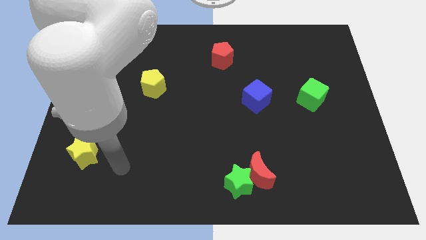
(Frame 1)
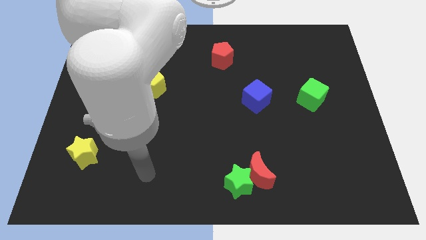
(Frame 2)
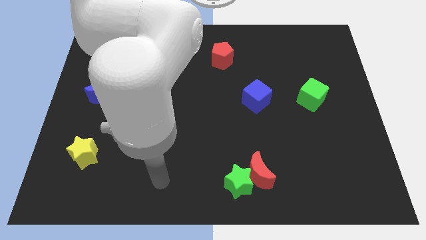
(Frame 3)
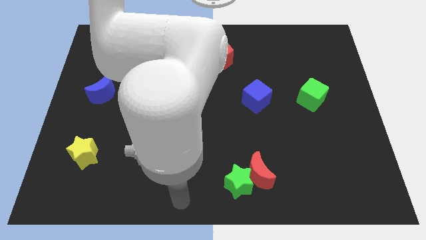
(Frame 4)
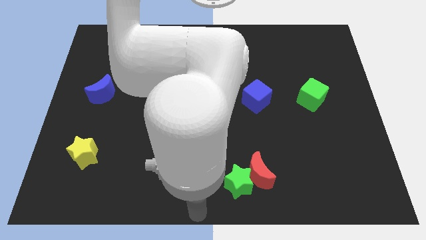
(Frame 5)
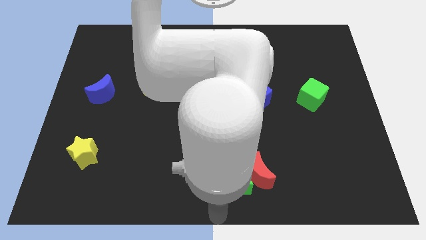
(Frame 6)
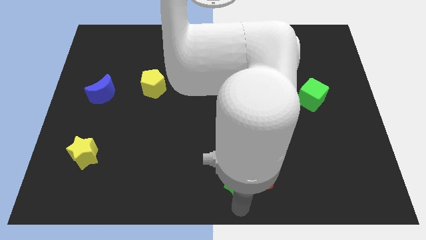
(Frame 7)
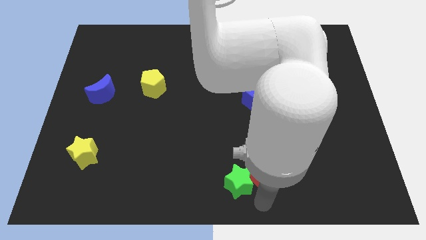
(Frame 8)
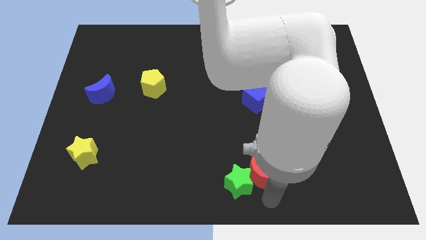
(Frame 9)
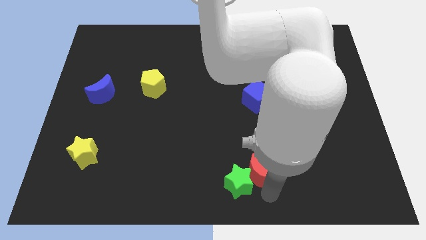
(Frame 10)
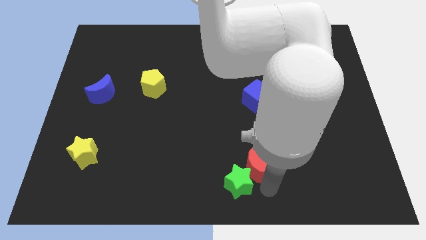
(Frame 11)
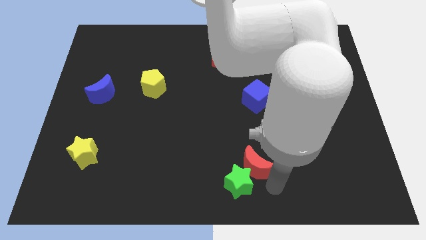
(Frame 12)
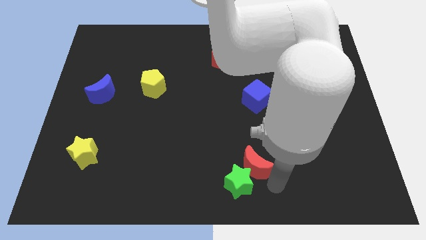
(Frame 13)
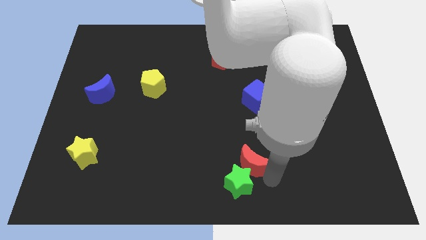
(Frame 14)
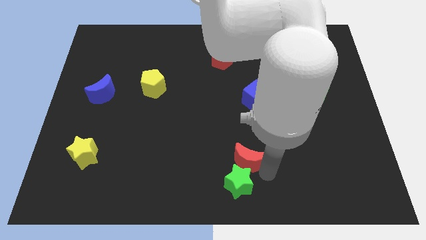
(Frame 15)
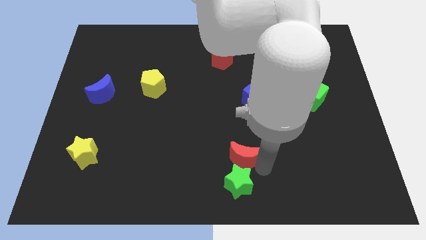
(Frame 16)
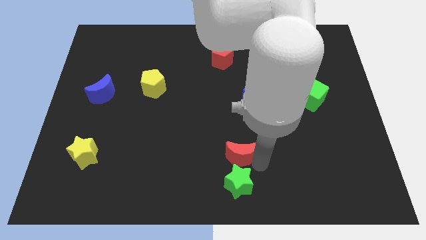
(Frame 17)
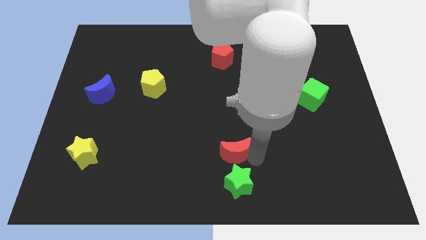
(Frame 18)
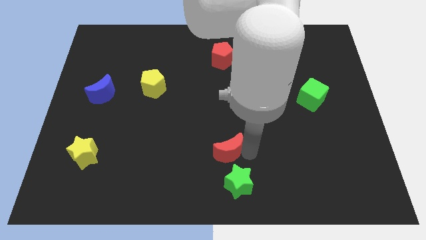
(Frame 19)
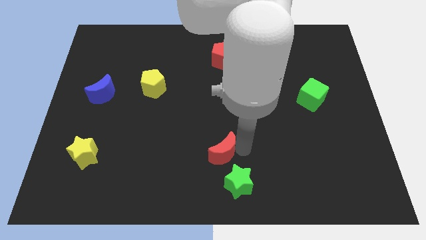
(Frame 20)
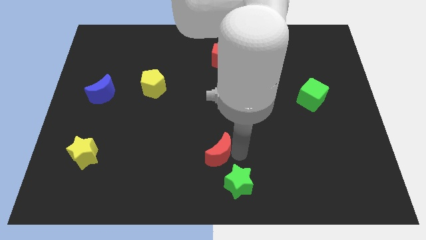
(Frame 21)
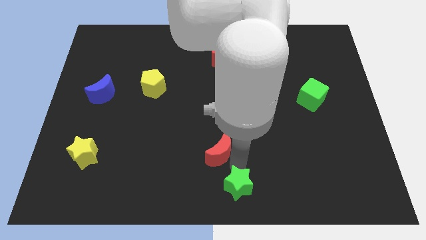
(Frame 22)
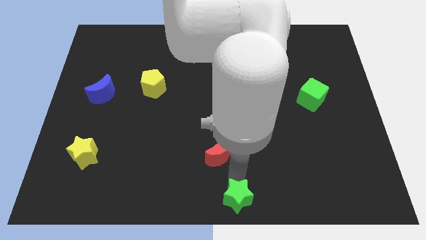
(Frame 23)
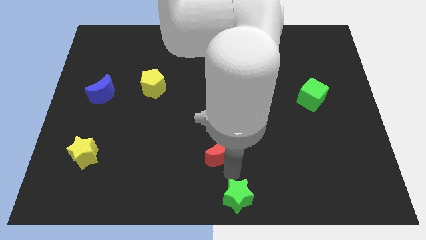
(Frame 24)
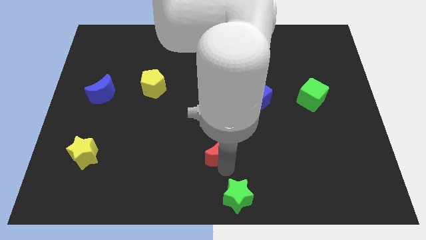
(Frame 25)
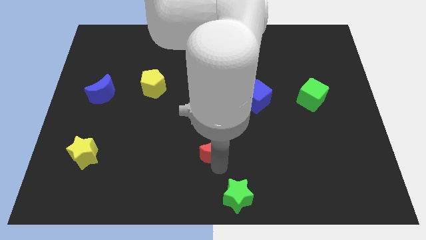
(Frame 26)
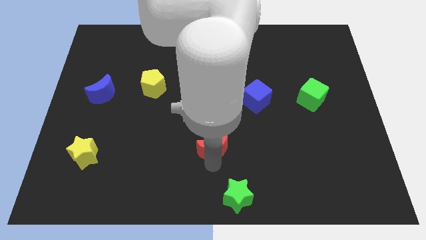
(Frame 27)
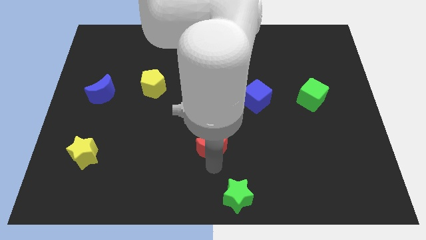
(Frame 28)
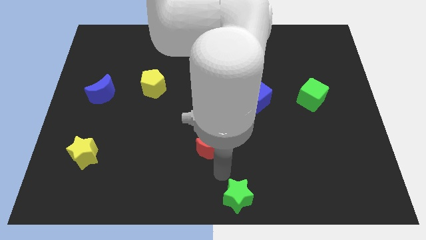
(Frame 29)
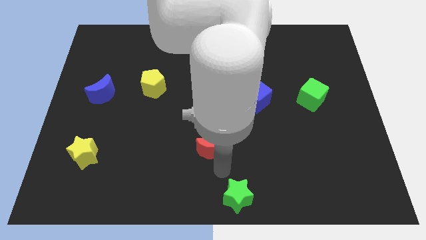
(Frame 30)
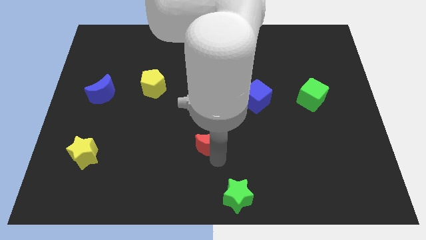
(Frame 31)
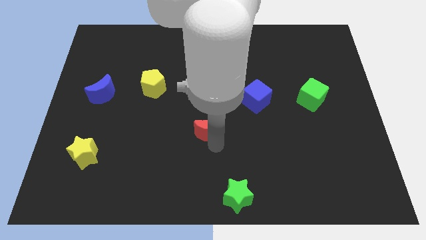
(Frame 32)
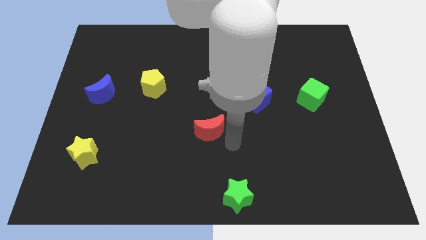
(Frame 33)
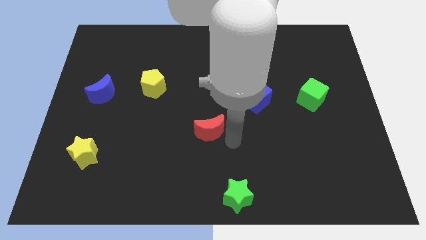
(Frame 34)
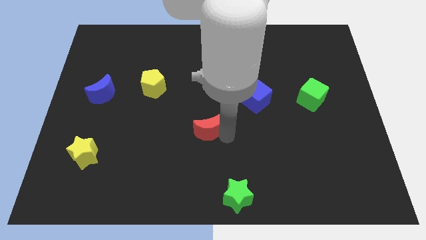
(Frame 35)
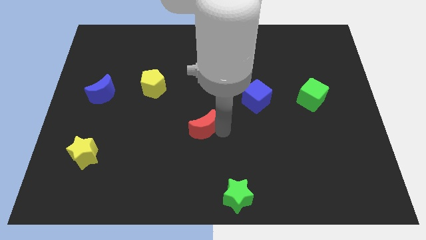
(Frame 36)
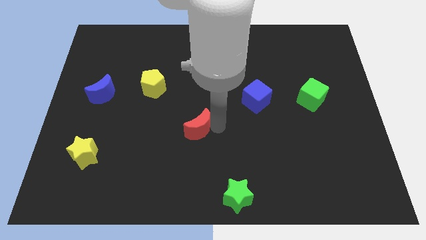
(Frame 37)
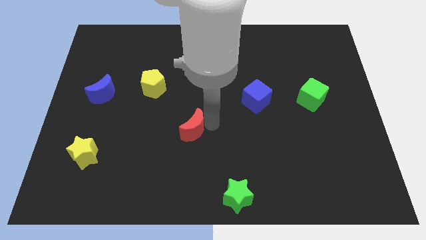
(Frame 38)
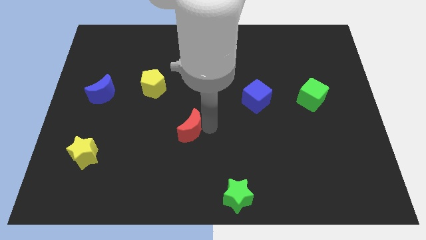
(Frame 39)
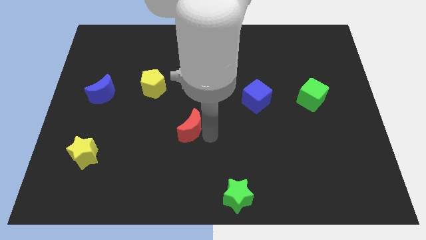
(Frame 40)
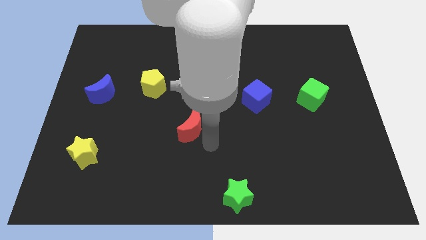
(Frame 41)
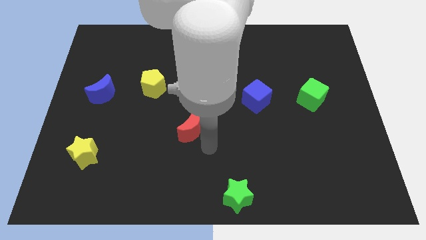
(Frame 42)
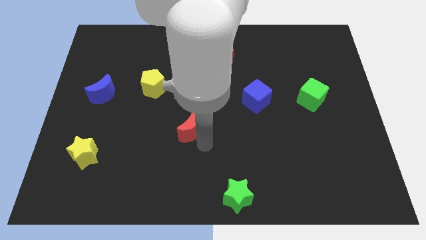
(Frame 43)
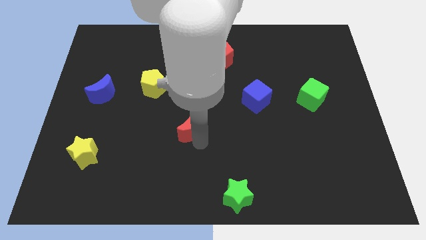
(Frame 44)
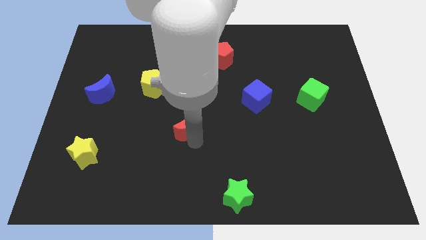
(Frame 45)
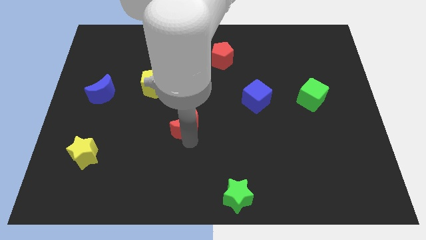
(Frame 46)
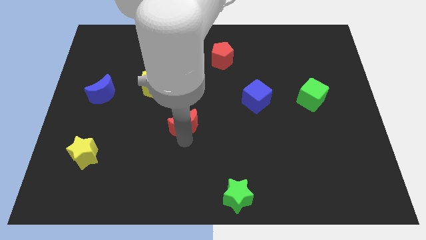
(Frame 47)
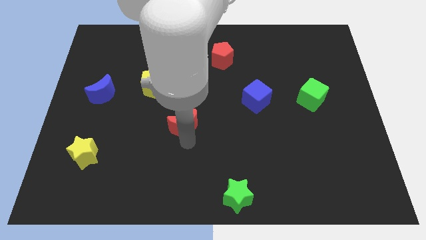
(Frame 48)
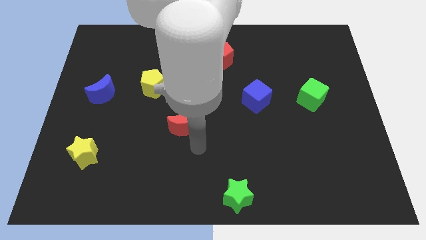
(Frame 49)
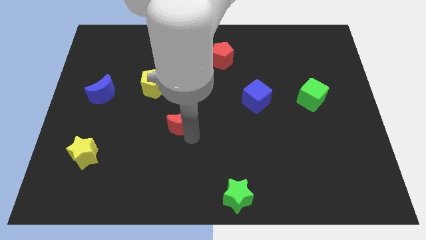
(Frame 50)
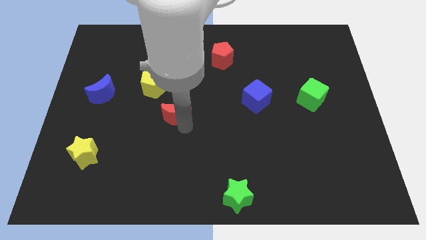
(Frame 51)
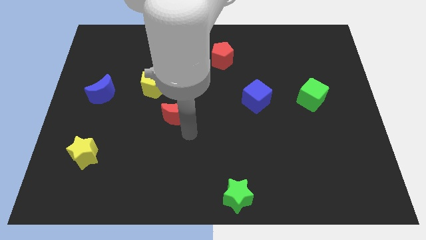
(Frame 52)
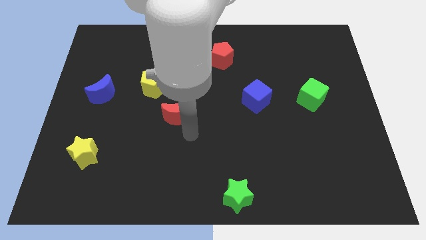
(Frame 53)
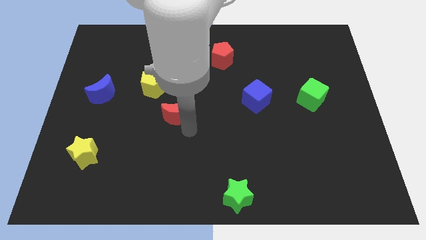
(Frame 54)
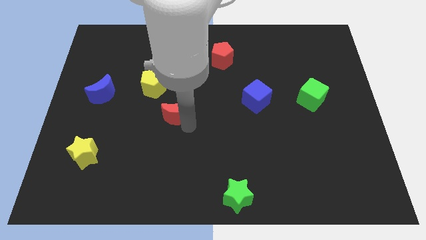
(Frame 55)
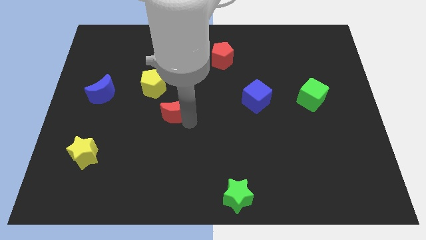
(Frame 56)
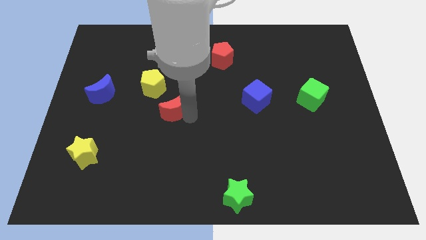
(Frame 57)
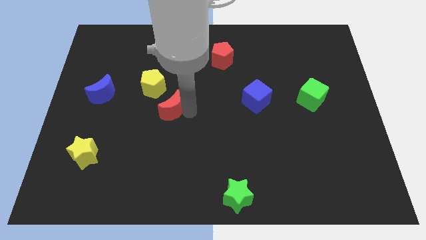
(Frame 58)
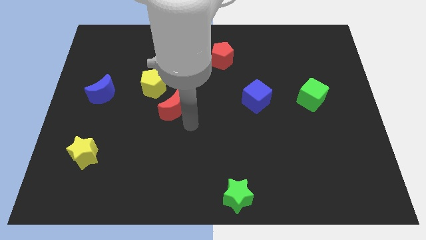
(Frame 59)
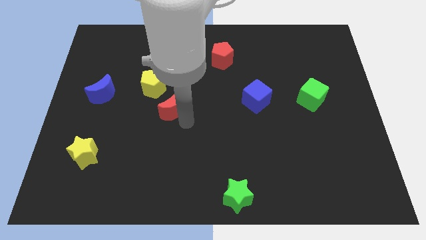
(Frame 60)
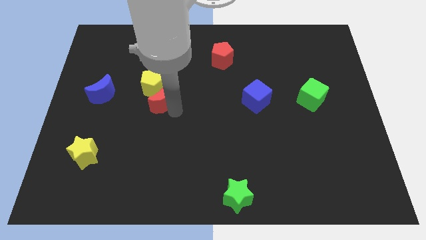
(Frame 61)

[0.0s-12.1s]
slide the red moon next to the yellow pentagon

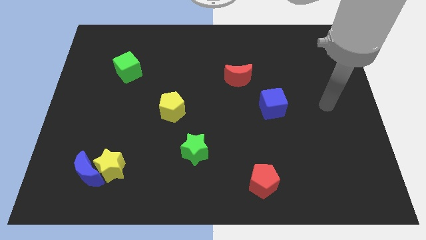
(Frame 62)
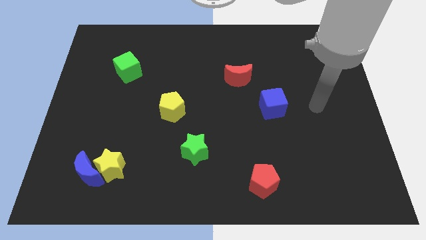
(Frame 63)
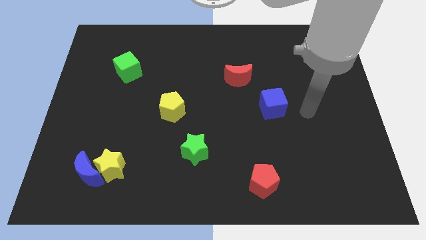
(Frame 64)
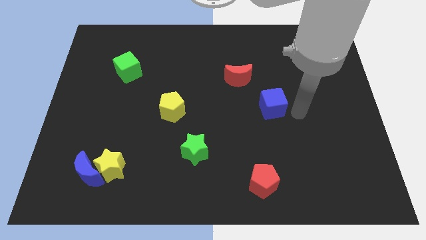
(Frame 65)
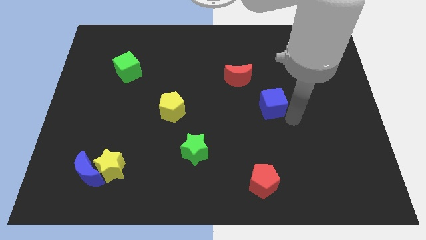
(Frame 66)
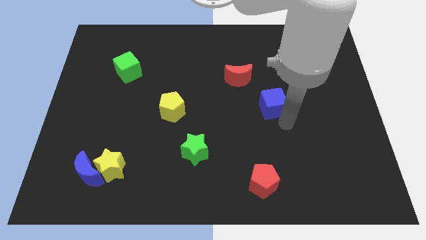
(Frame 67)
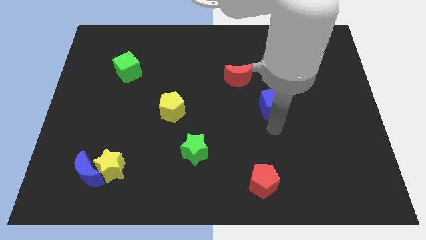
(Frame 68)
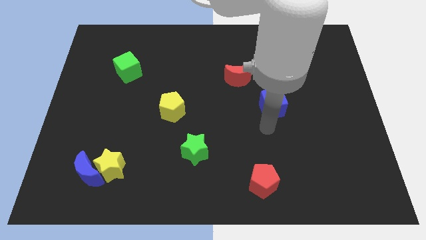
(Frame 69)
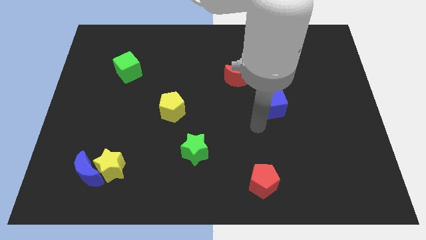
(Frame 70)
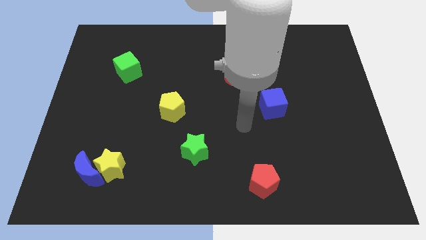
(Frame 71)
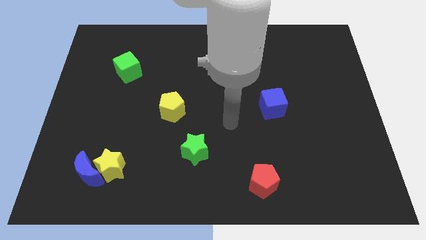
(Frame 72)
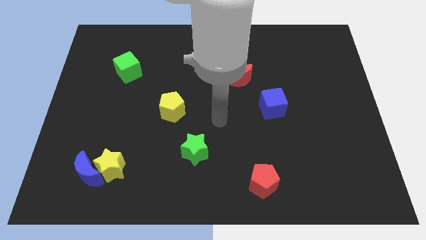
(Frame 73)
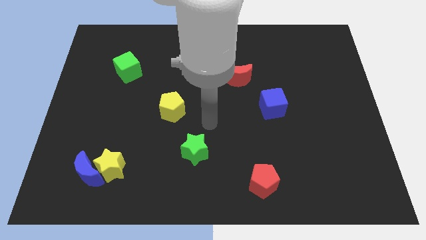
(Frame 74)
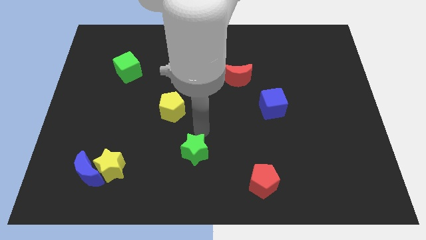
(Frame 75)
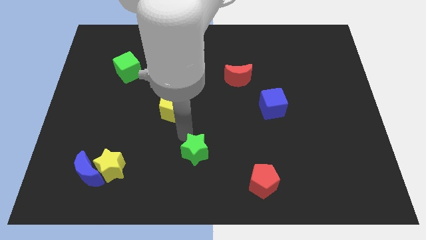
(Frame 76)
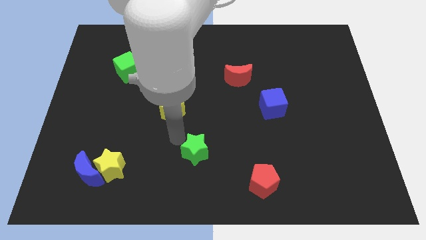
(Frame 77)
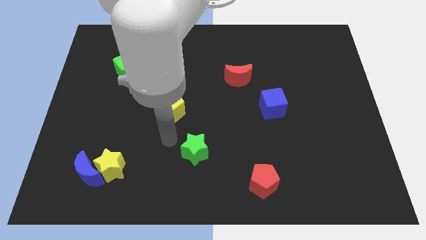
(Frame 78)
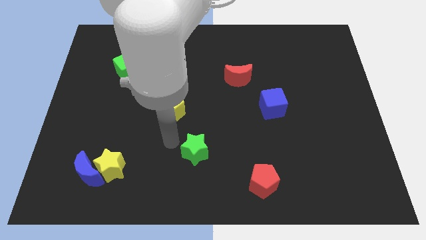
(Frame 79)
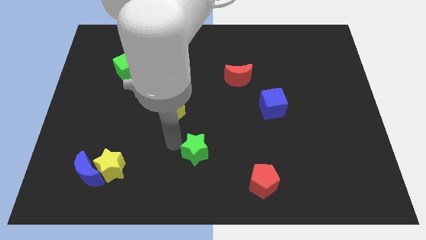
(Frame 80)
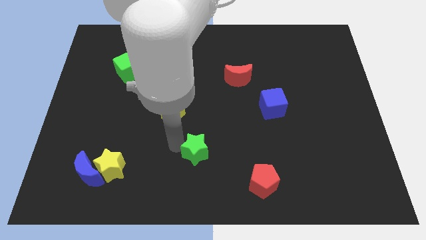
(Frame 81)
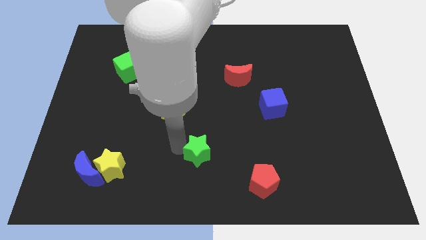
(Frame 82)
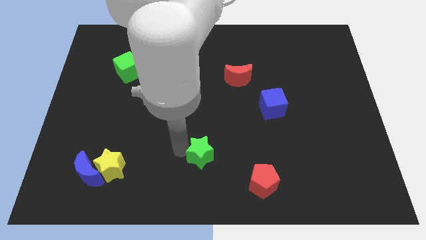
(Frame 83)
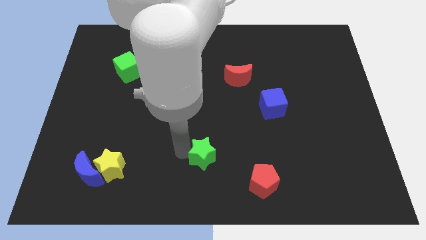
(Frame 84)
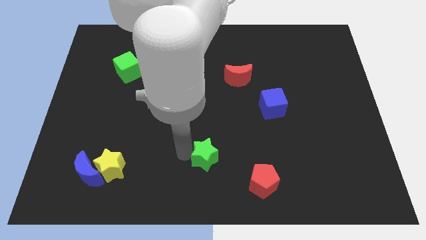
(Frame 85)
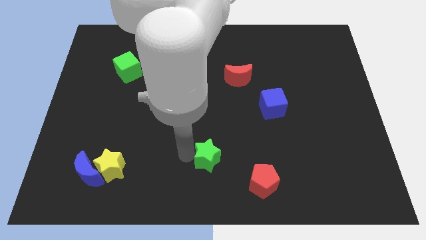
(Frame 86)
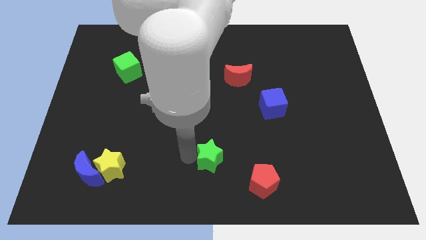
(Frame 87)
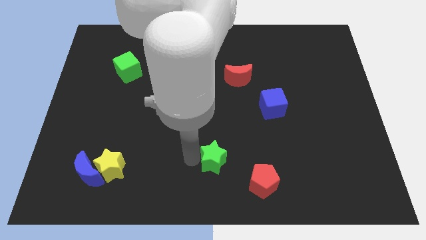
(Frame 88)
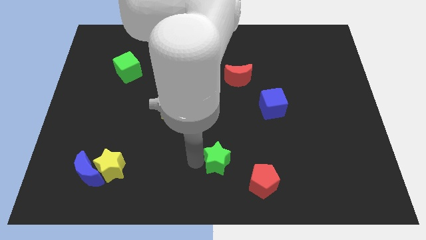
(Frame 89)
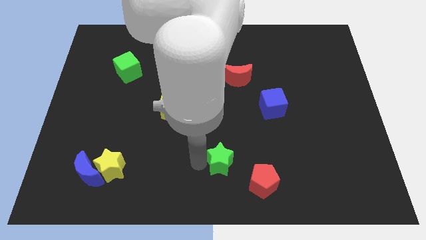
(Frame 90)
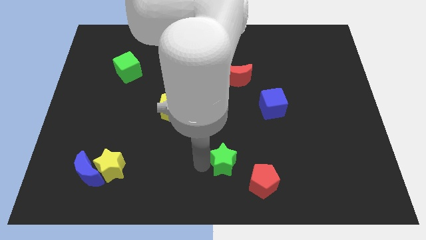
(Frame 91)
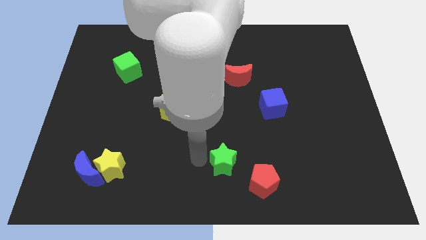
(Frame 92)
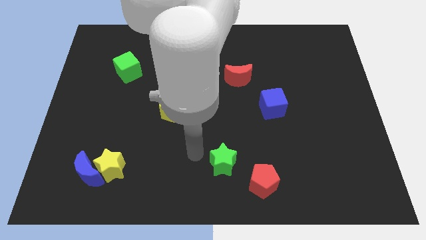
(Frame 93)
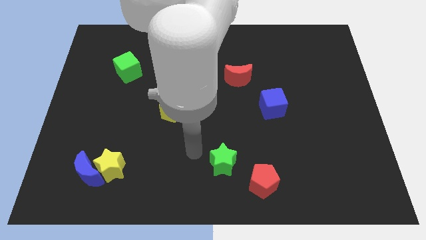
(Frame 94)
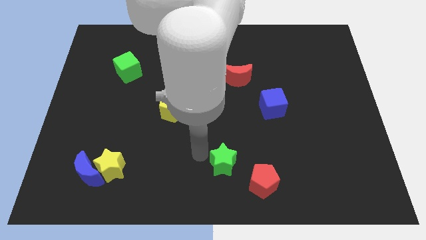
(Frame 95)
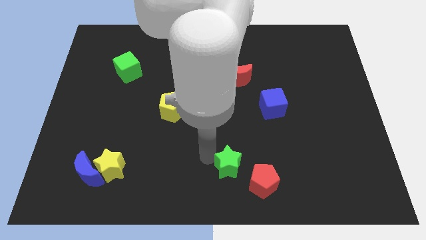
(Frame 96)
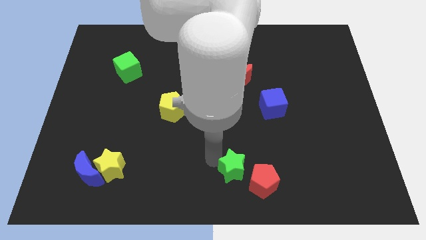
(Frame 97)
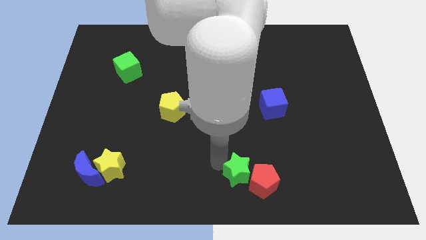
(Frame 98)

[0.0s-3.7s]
put the green star next to the red pentagon
